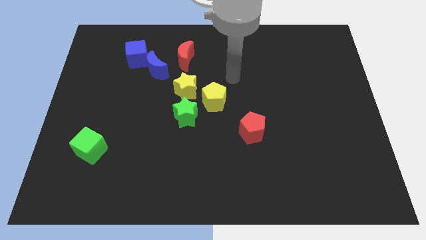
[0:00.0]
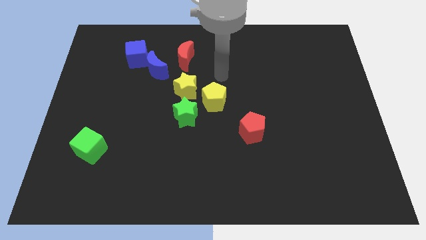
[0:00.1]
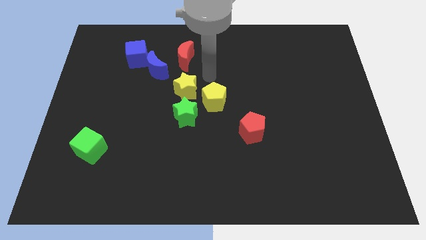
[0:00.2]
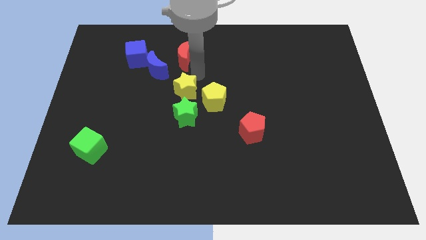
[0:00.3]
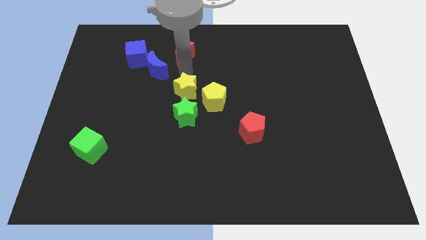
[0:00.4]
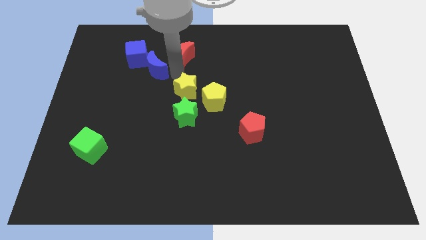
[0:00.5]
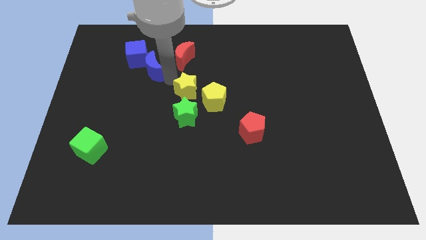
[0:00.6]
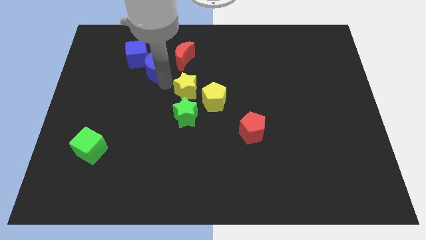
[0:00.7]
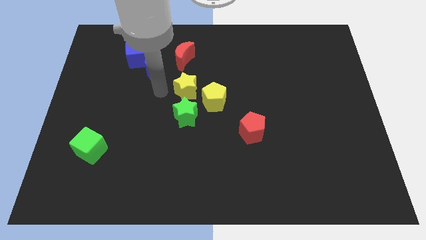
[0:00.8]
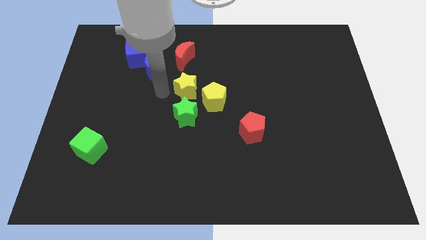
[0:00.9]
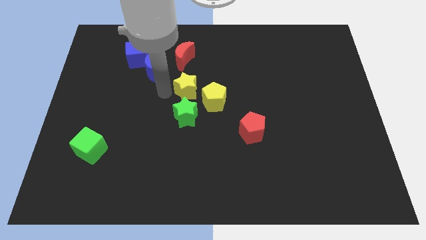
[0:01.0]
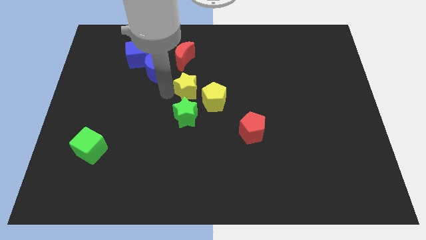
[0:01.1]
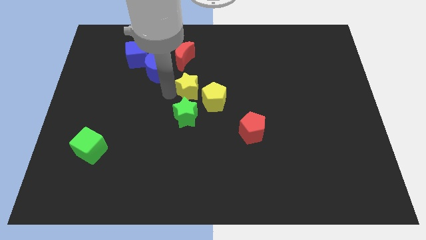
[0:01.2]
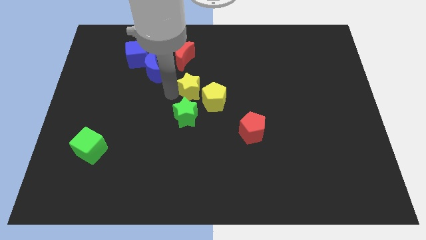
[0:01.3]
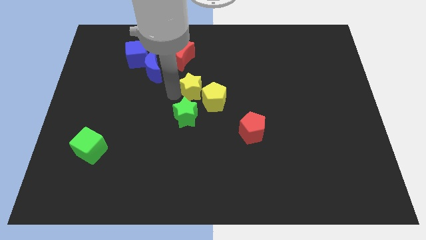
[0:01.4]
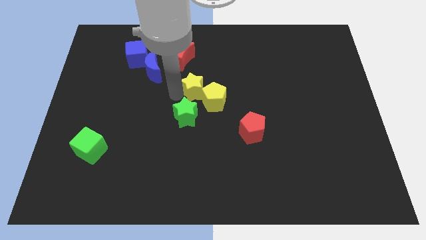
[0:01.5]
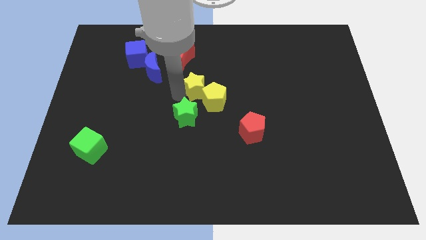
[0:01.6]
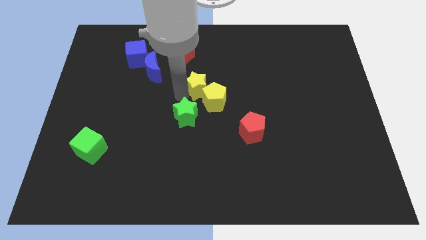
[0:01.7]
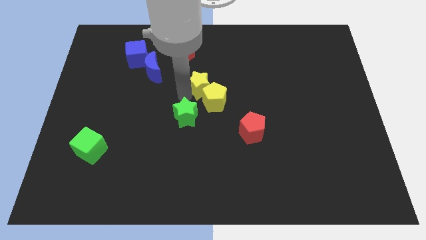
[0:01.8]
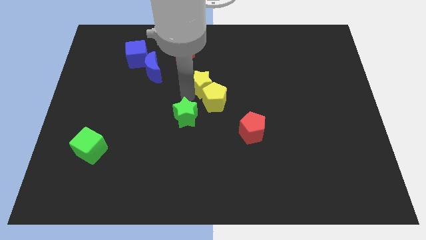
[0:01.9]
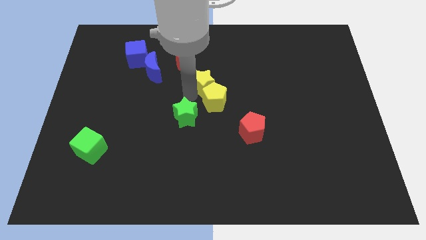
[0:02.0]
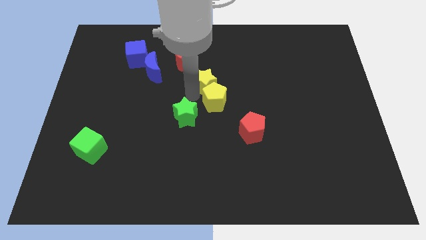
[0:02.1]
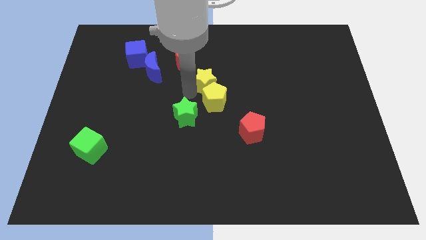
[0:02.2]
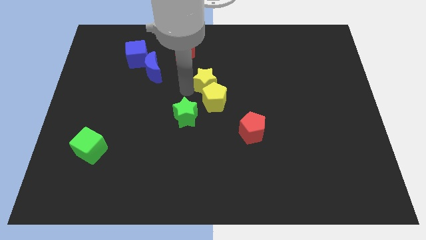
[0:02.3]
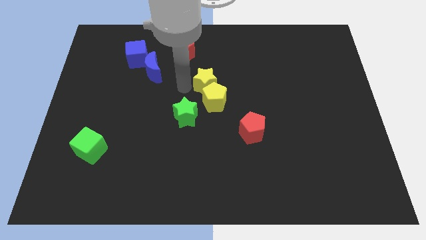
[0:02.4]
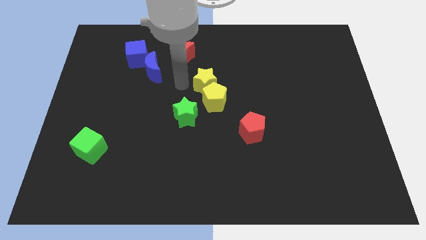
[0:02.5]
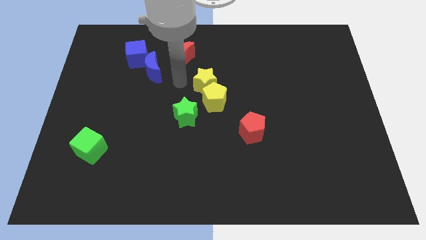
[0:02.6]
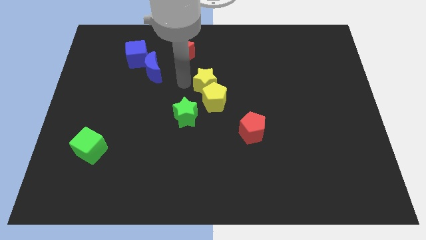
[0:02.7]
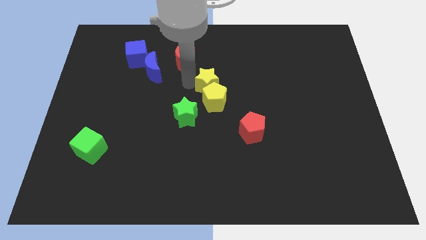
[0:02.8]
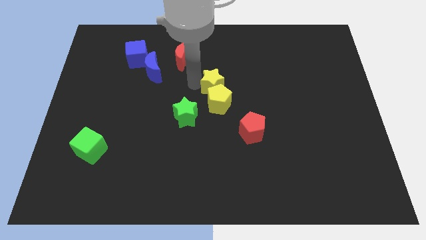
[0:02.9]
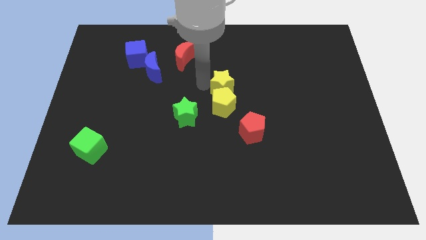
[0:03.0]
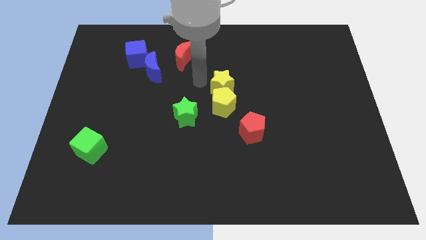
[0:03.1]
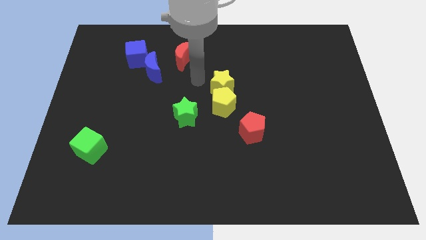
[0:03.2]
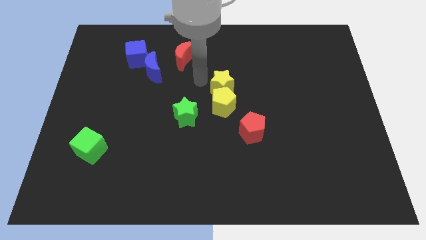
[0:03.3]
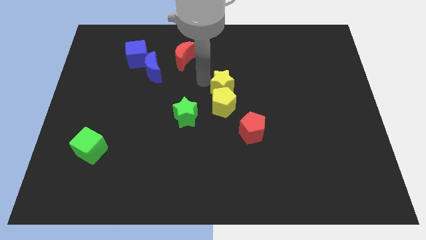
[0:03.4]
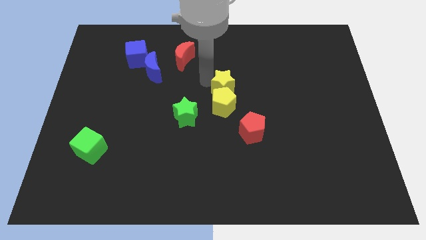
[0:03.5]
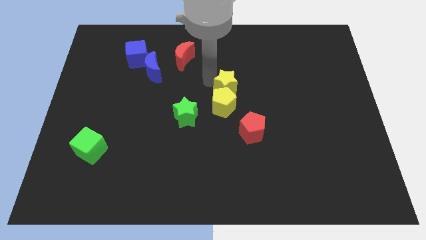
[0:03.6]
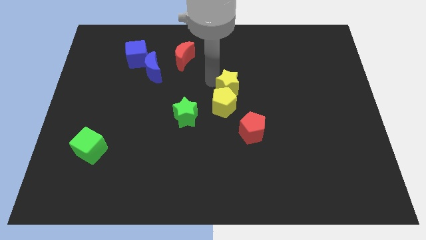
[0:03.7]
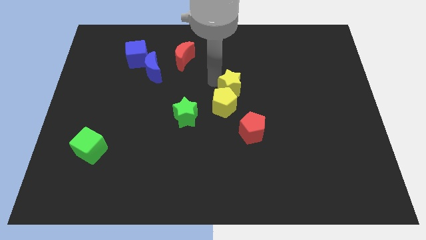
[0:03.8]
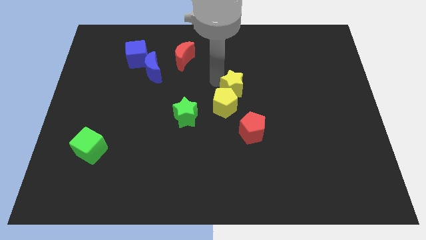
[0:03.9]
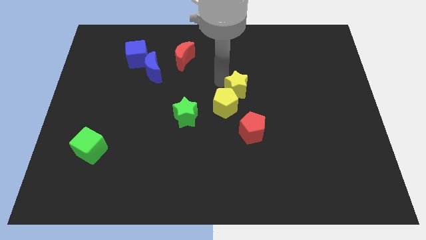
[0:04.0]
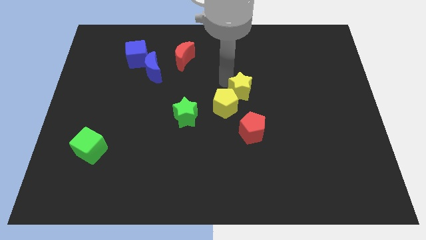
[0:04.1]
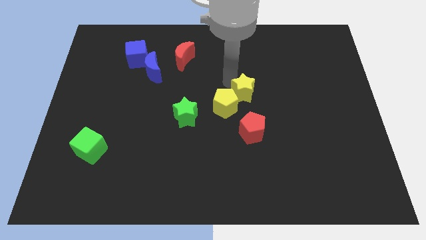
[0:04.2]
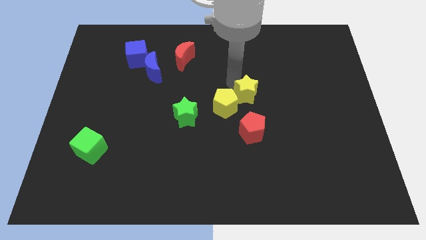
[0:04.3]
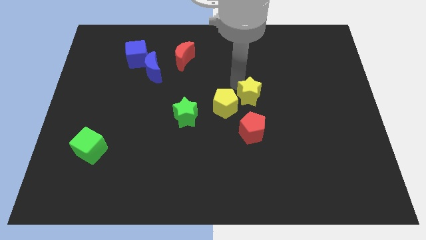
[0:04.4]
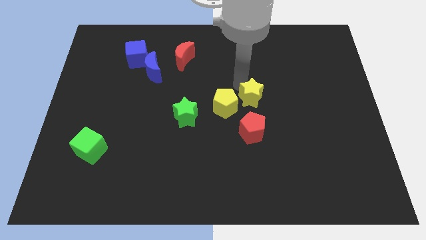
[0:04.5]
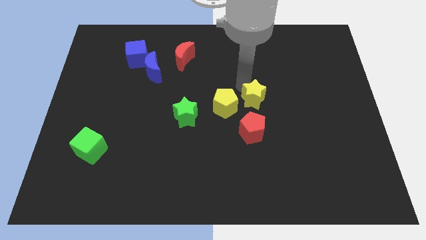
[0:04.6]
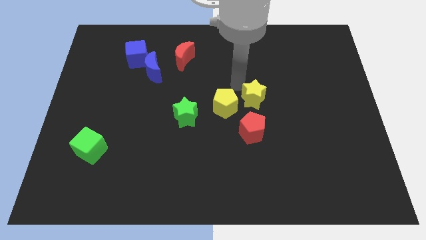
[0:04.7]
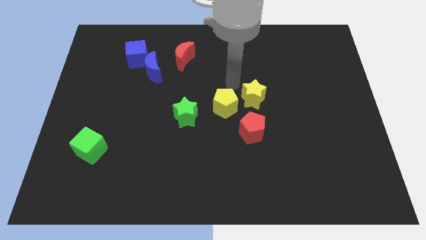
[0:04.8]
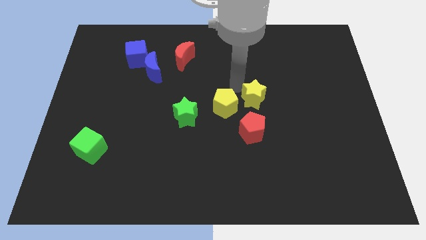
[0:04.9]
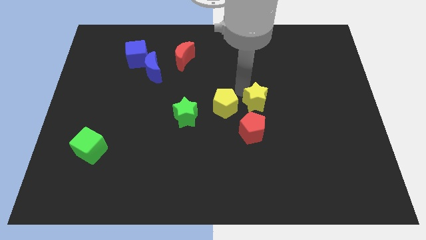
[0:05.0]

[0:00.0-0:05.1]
slide the yellow star to the top right side of the red pentagon

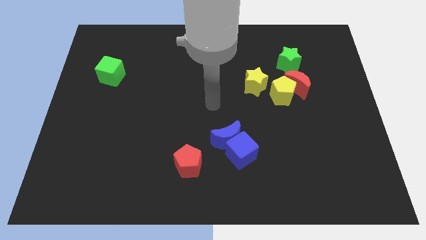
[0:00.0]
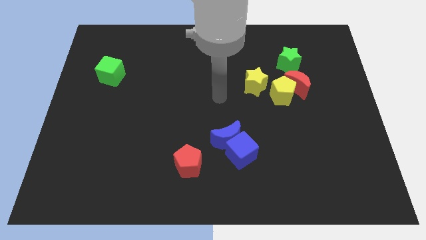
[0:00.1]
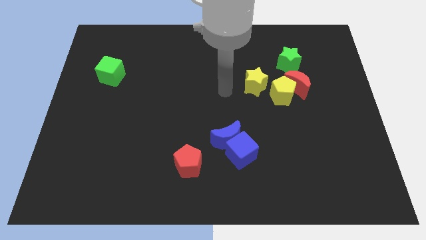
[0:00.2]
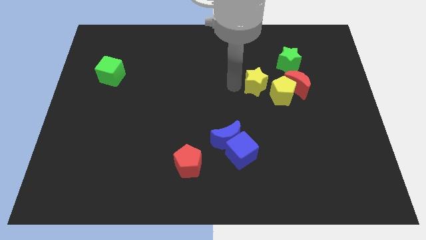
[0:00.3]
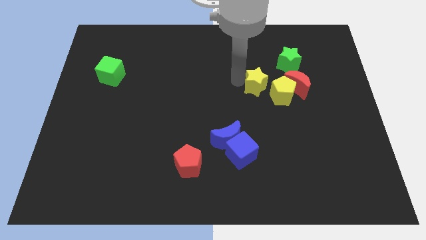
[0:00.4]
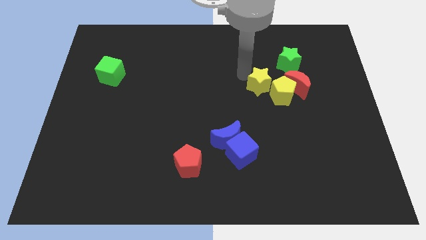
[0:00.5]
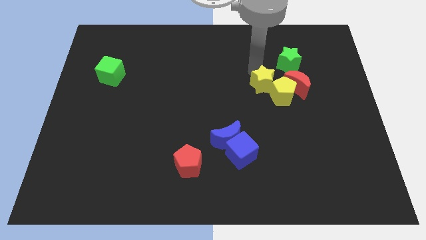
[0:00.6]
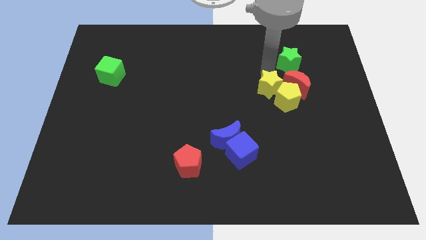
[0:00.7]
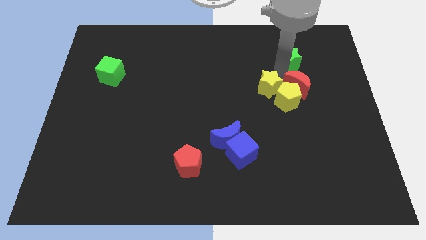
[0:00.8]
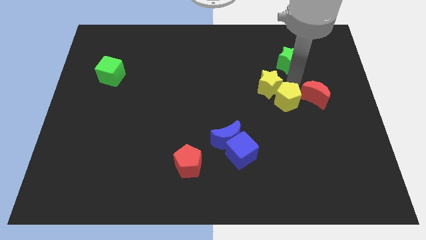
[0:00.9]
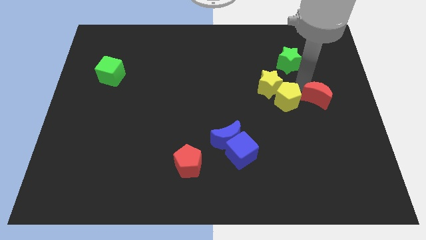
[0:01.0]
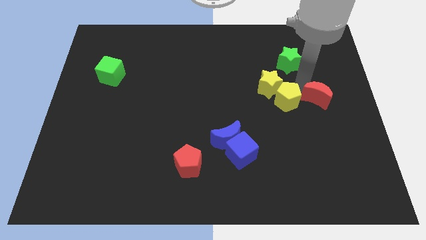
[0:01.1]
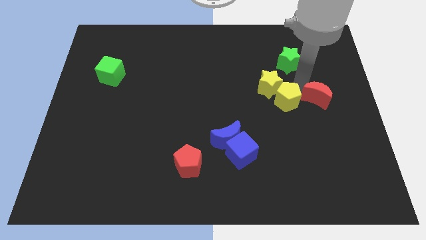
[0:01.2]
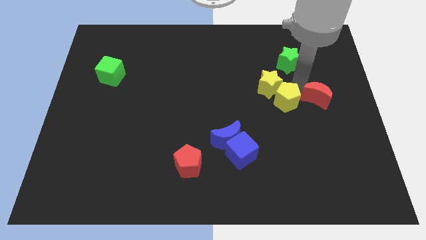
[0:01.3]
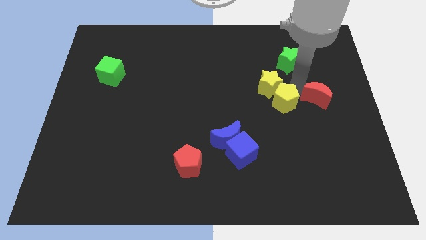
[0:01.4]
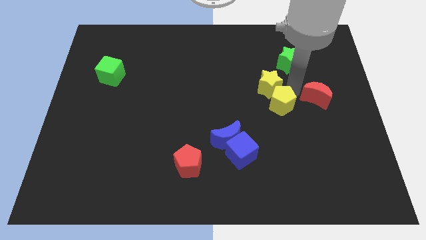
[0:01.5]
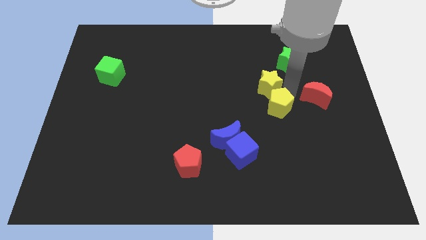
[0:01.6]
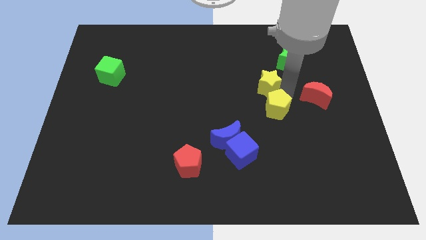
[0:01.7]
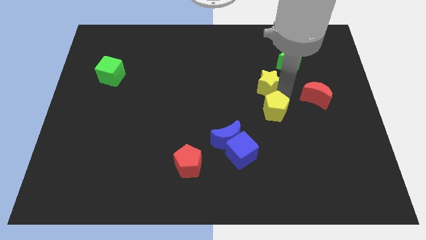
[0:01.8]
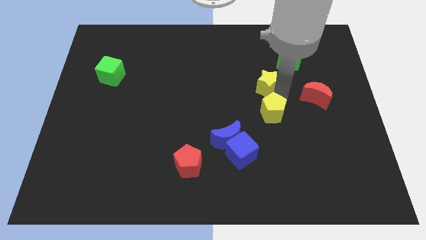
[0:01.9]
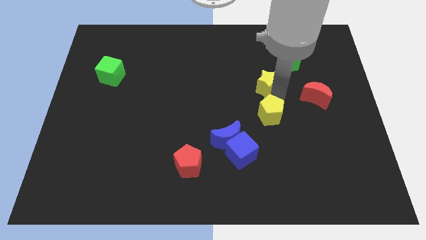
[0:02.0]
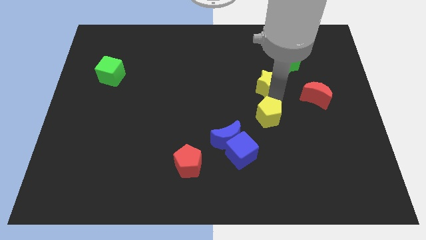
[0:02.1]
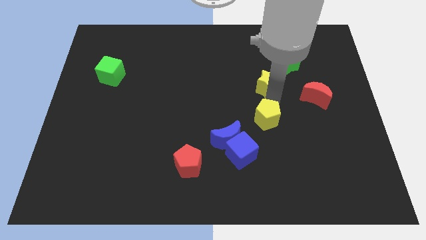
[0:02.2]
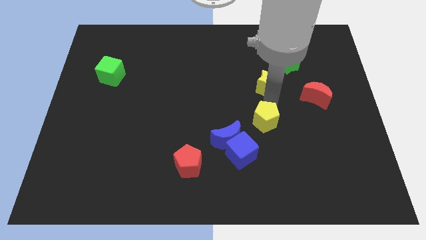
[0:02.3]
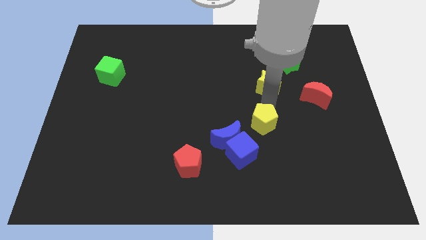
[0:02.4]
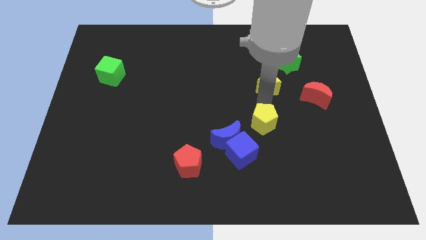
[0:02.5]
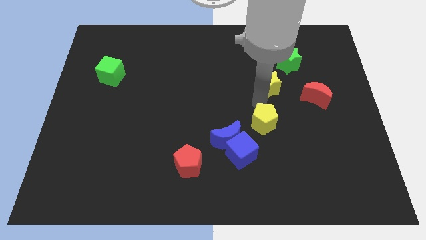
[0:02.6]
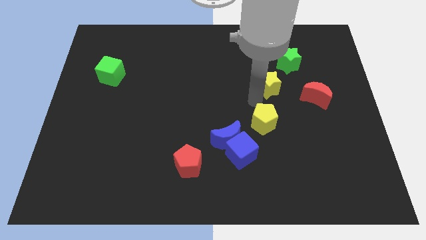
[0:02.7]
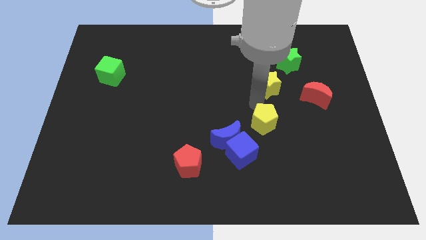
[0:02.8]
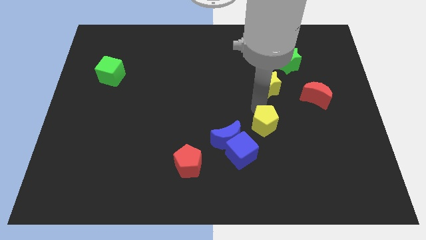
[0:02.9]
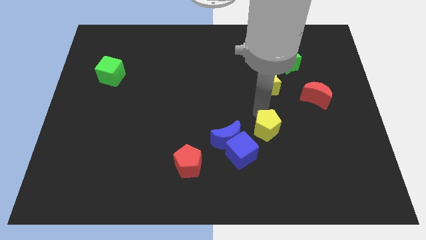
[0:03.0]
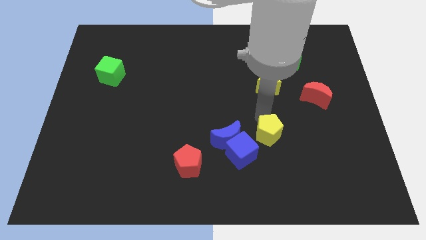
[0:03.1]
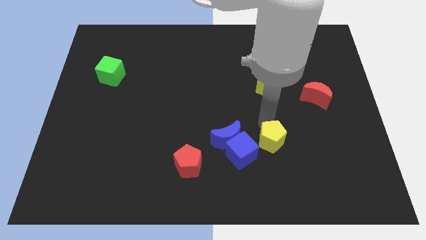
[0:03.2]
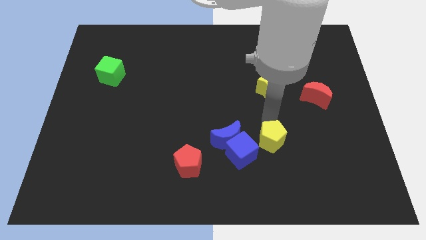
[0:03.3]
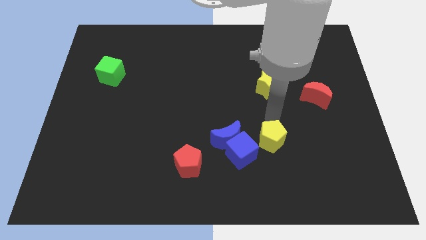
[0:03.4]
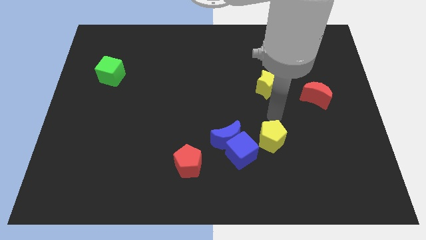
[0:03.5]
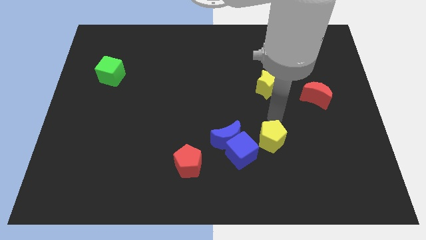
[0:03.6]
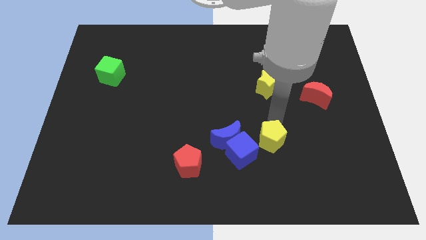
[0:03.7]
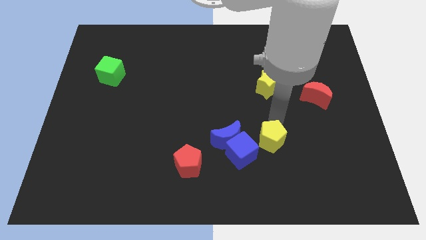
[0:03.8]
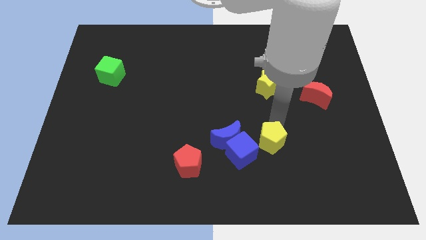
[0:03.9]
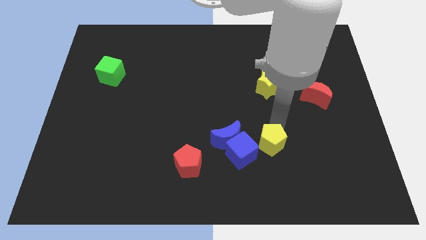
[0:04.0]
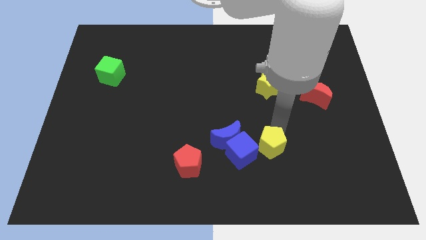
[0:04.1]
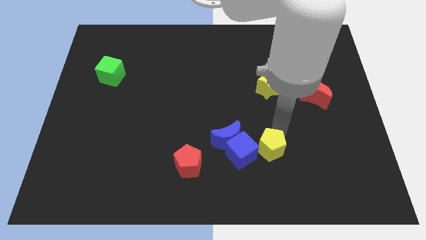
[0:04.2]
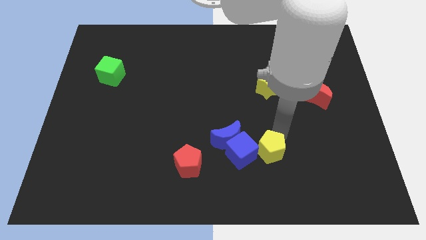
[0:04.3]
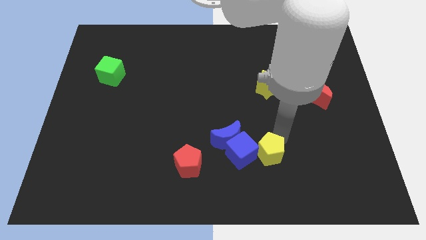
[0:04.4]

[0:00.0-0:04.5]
slide the yellow pentagon to the bottom right of the blue cube
